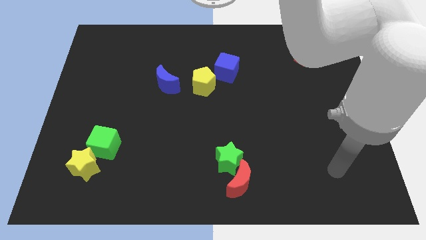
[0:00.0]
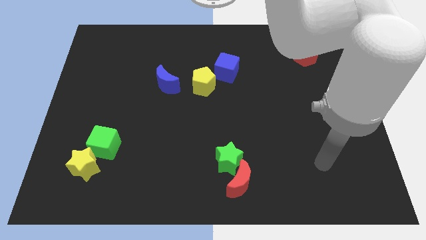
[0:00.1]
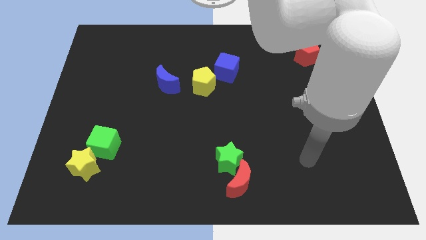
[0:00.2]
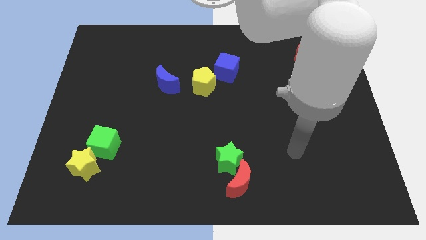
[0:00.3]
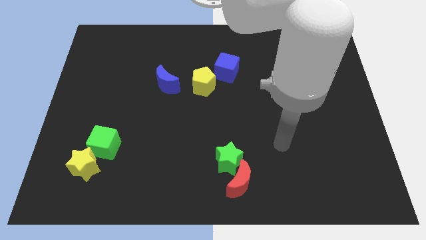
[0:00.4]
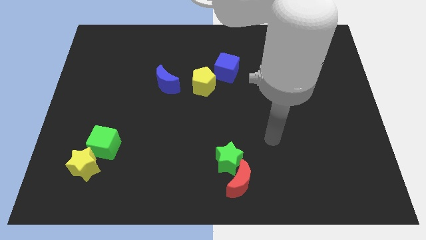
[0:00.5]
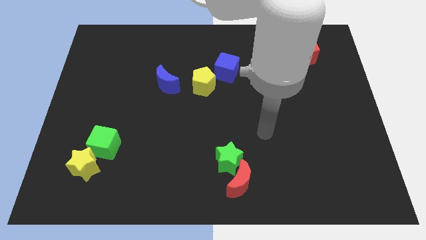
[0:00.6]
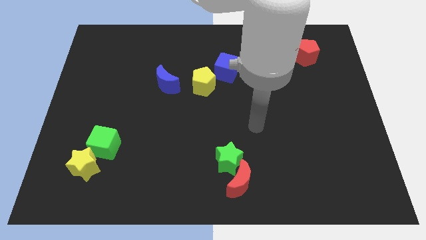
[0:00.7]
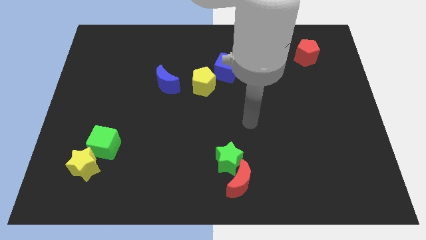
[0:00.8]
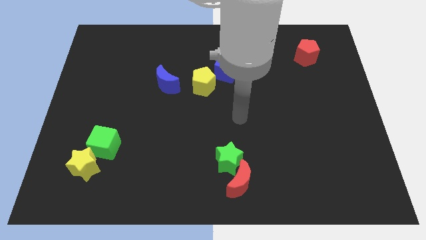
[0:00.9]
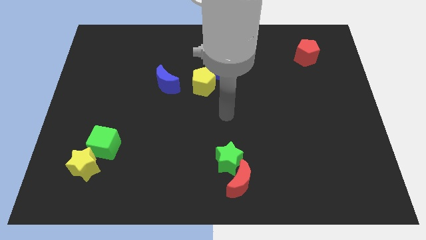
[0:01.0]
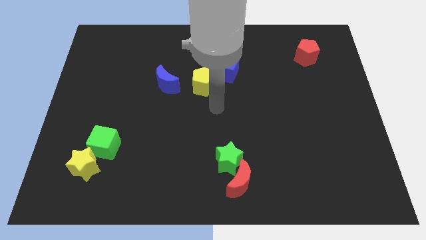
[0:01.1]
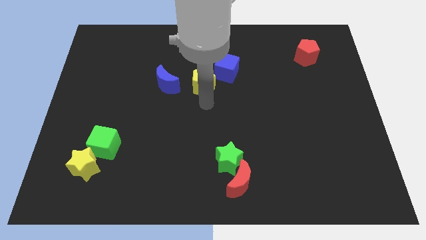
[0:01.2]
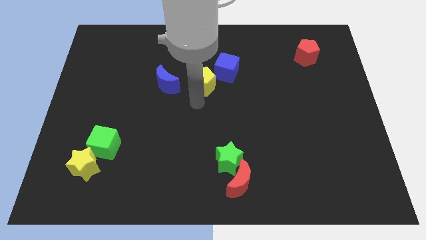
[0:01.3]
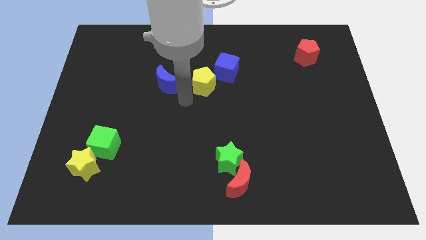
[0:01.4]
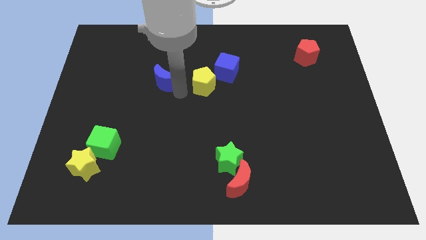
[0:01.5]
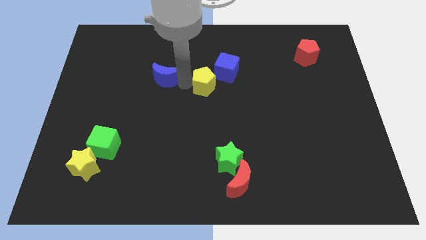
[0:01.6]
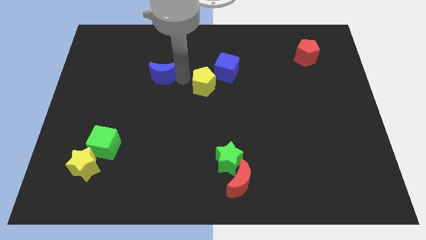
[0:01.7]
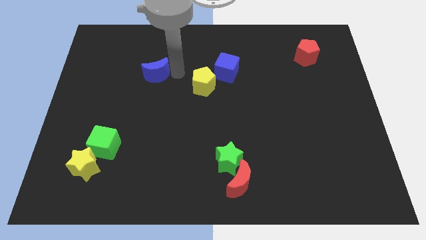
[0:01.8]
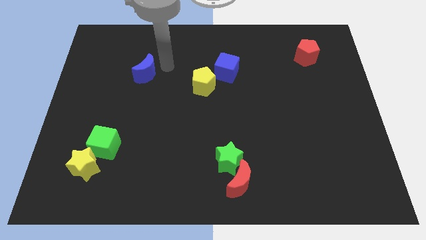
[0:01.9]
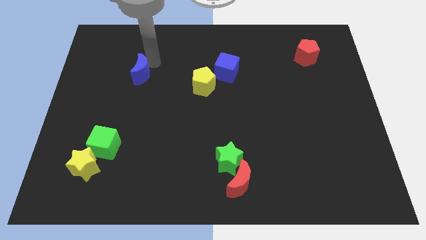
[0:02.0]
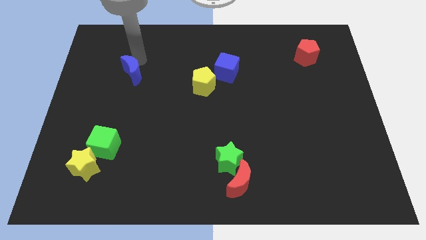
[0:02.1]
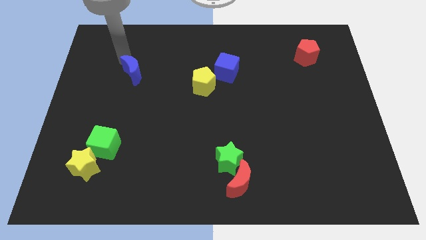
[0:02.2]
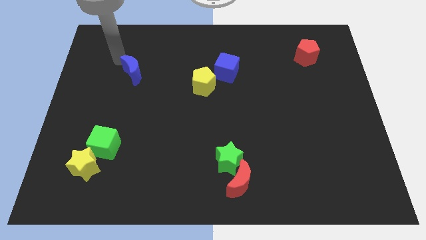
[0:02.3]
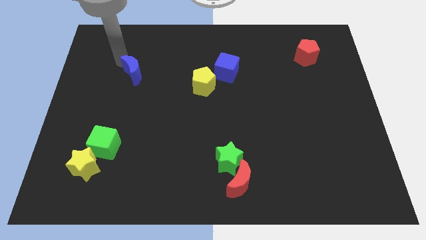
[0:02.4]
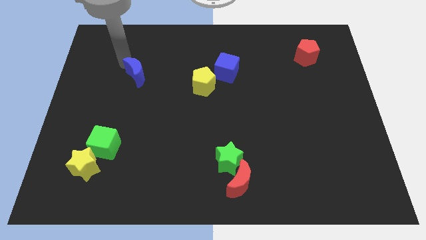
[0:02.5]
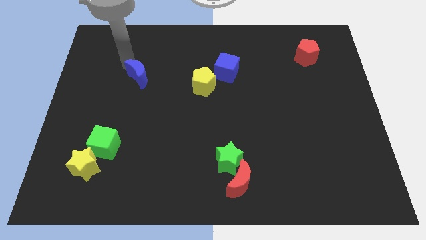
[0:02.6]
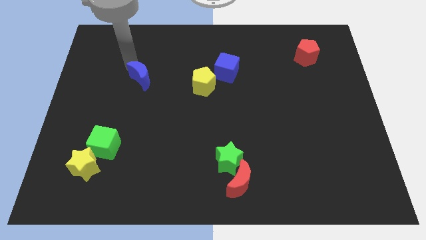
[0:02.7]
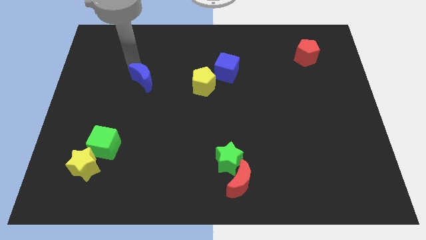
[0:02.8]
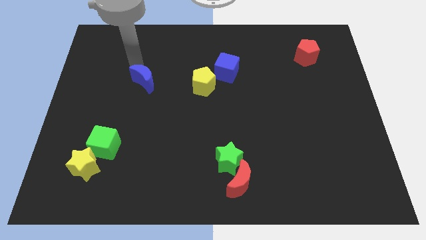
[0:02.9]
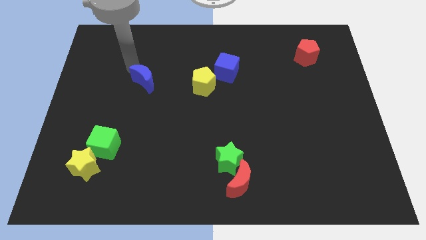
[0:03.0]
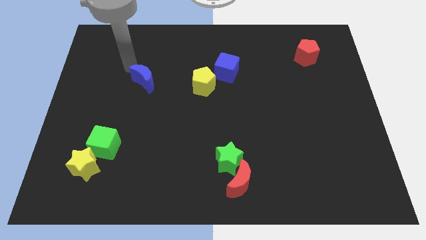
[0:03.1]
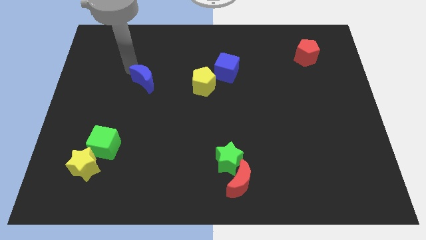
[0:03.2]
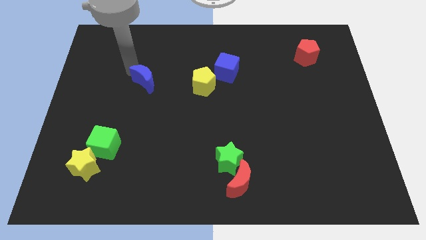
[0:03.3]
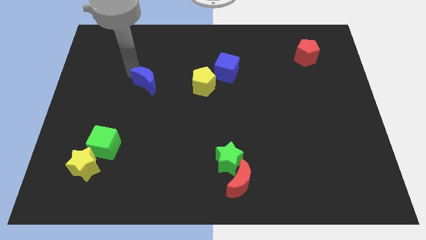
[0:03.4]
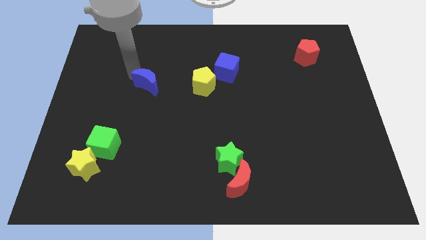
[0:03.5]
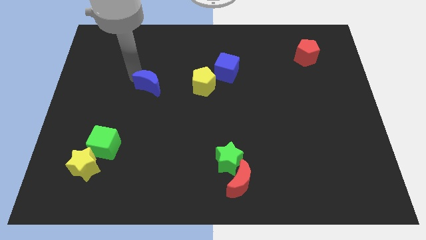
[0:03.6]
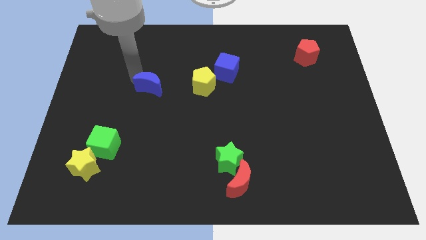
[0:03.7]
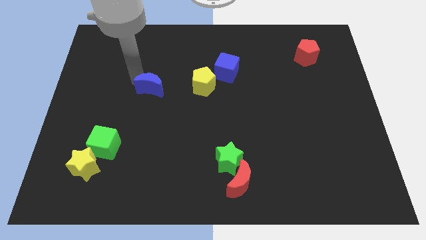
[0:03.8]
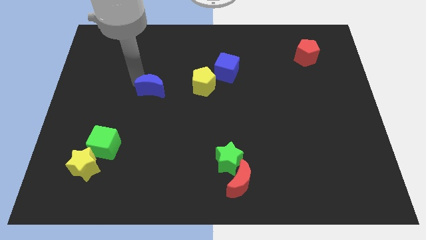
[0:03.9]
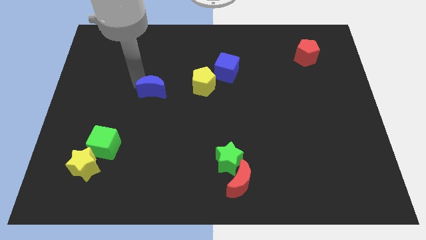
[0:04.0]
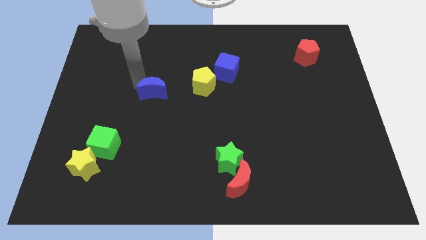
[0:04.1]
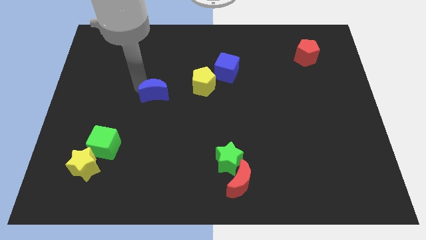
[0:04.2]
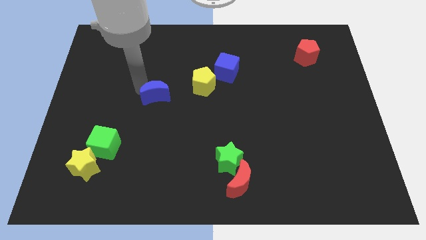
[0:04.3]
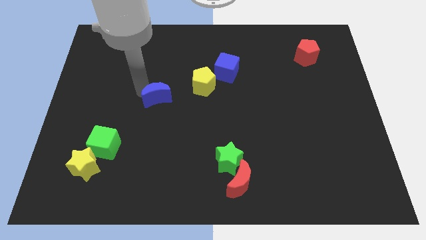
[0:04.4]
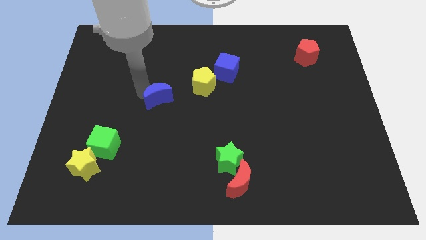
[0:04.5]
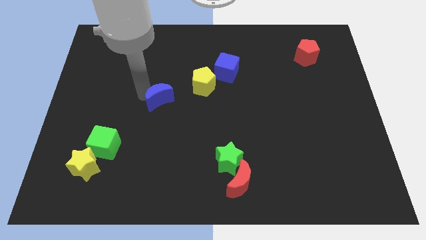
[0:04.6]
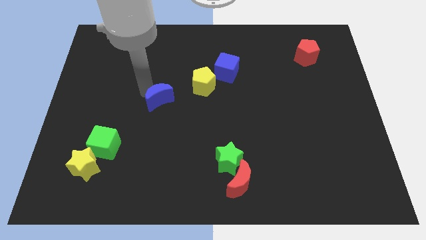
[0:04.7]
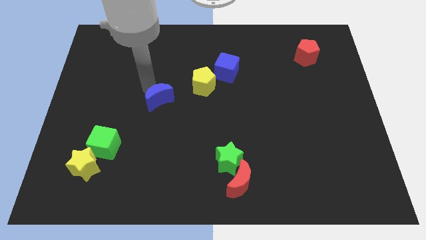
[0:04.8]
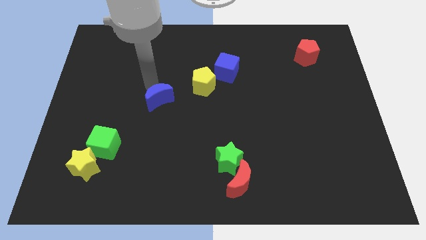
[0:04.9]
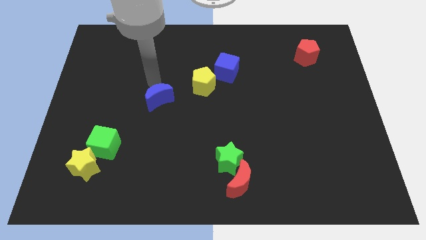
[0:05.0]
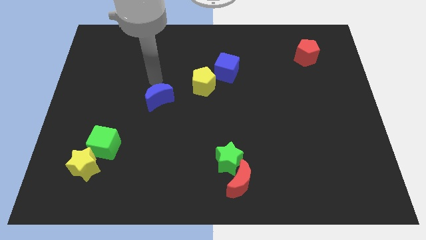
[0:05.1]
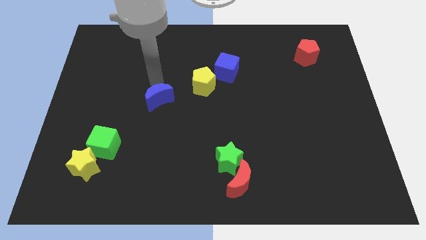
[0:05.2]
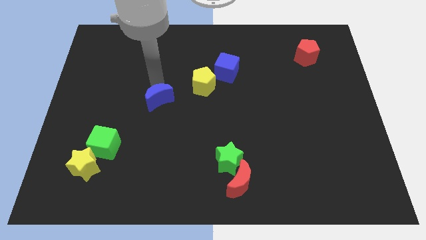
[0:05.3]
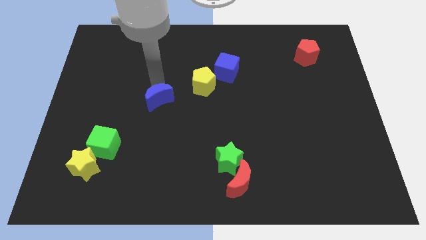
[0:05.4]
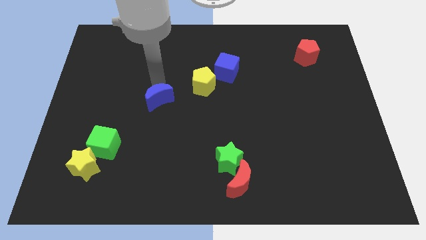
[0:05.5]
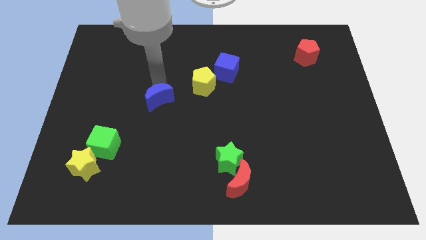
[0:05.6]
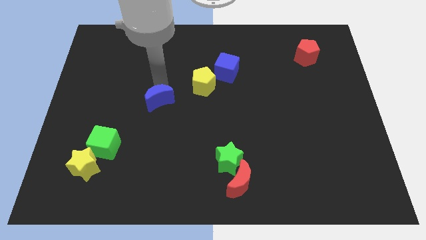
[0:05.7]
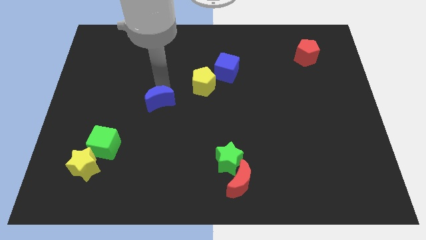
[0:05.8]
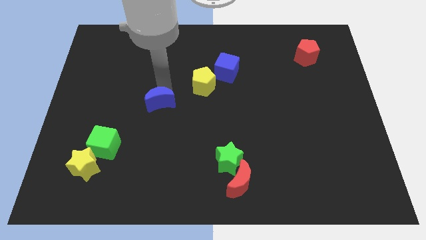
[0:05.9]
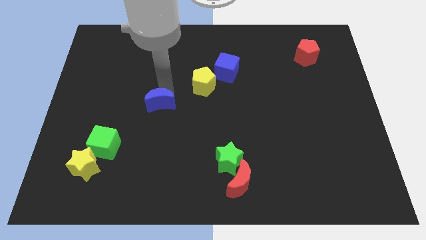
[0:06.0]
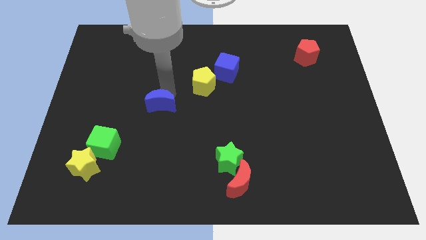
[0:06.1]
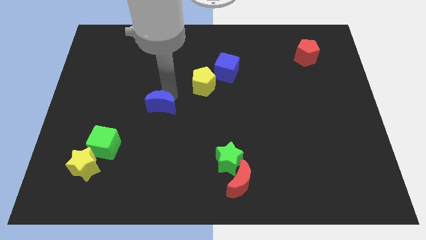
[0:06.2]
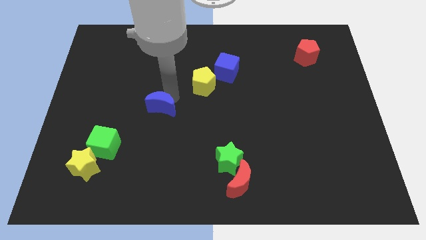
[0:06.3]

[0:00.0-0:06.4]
push the blue moon down slightly

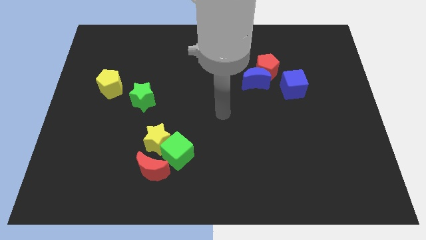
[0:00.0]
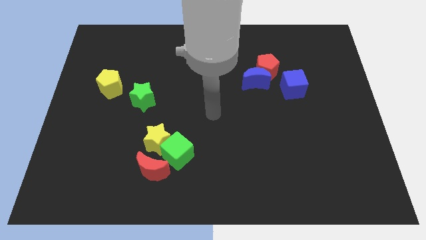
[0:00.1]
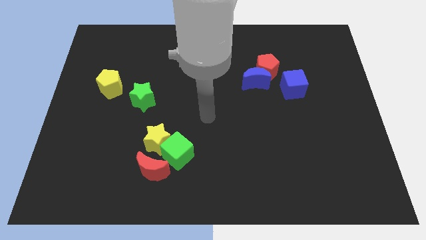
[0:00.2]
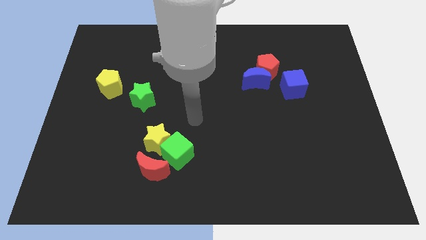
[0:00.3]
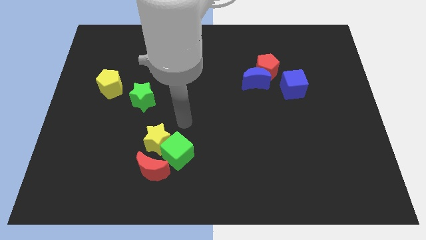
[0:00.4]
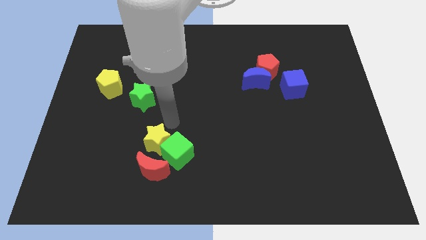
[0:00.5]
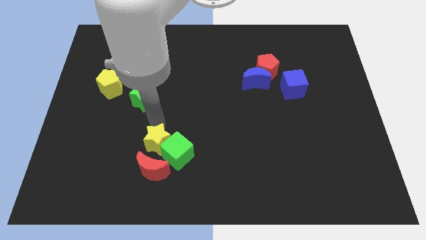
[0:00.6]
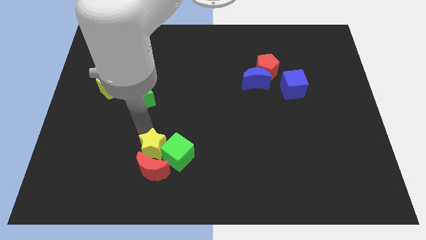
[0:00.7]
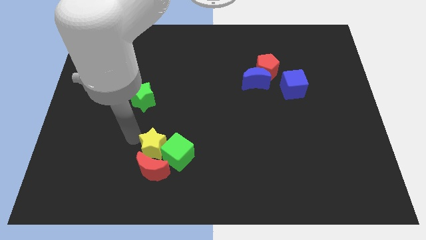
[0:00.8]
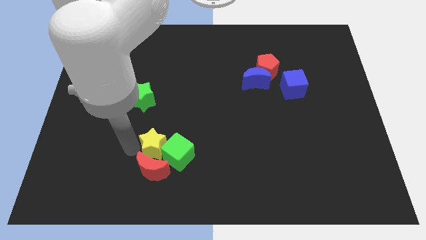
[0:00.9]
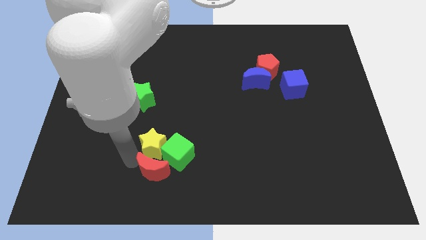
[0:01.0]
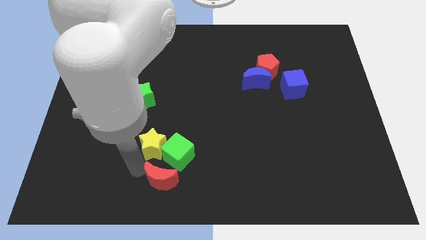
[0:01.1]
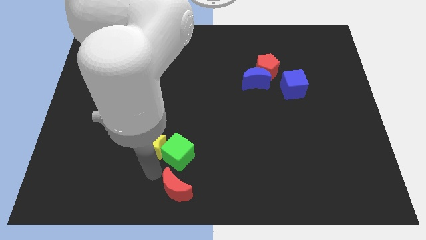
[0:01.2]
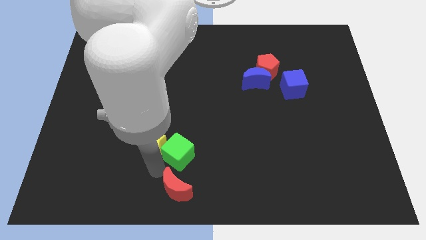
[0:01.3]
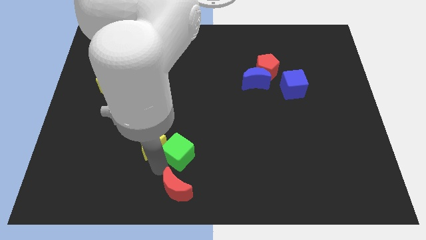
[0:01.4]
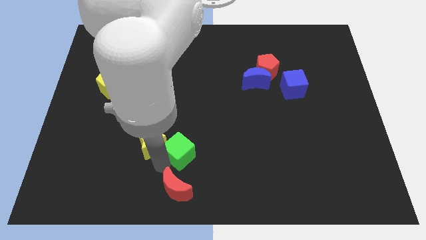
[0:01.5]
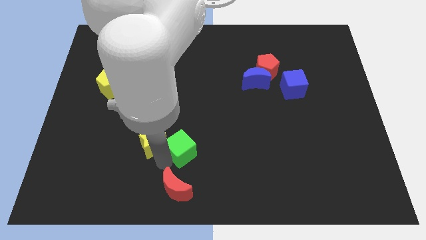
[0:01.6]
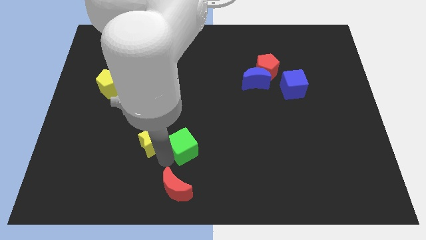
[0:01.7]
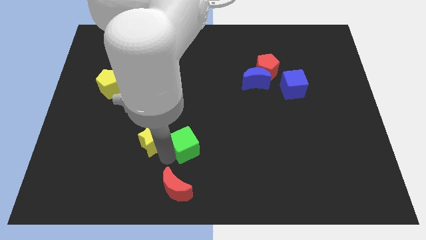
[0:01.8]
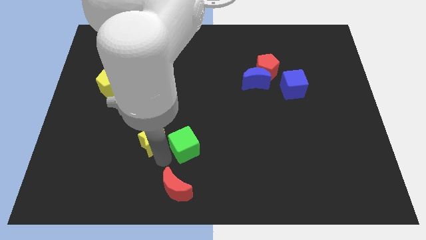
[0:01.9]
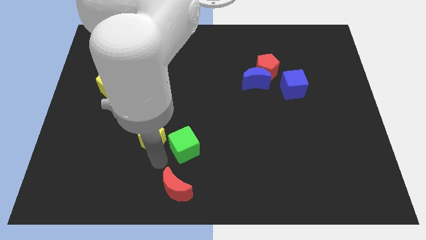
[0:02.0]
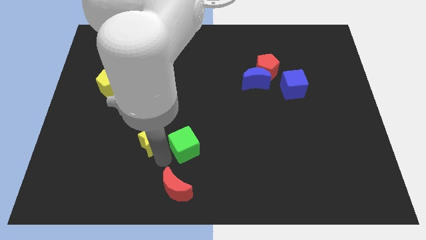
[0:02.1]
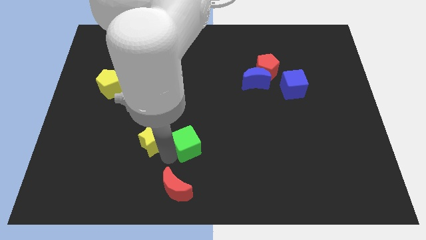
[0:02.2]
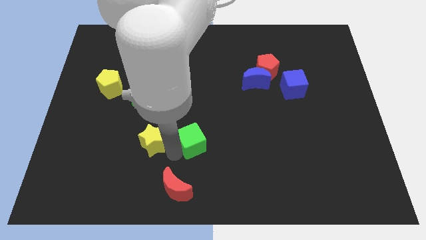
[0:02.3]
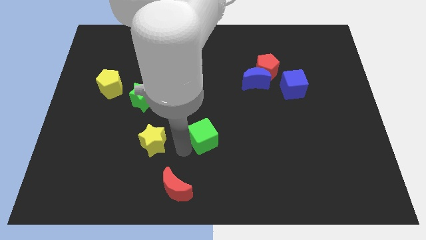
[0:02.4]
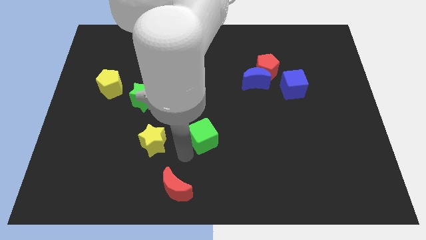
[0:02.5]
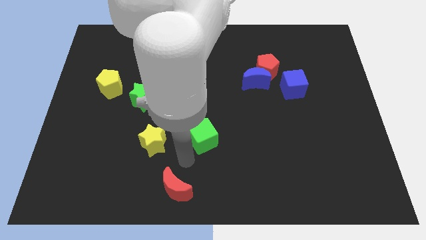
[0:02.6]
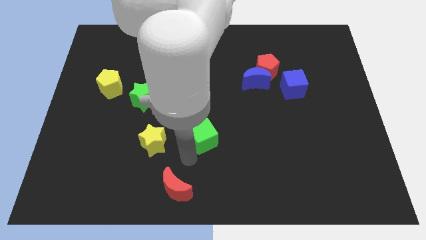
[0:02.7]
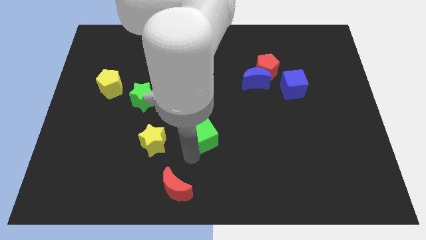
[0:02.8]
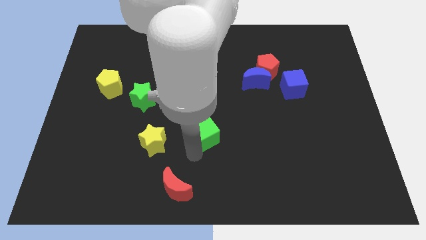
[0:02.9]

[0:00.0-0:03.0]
move the green cube a little diagonally upwards and right
